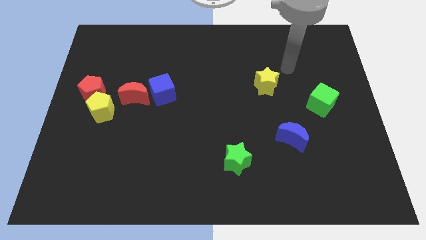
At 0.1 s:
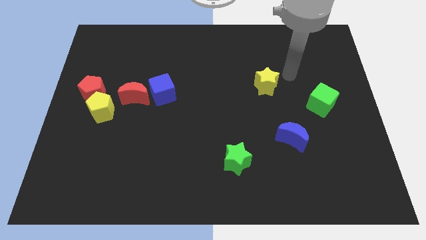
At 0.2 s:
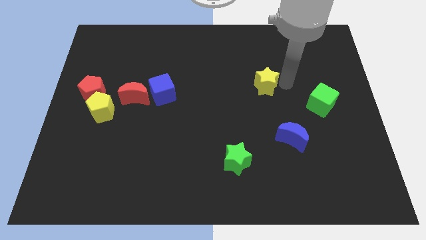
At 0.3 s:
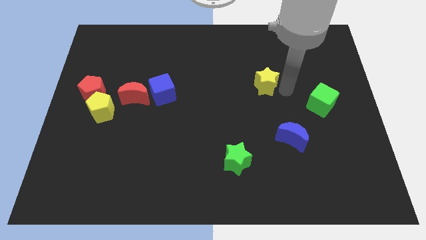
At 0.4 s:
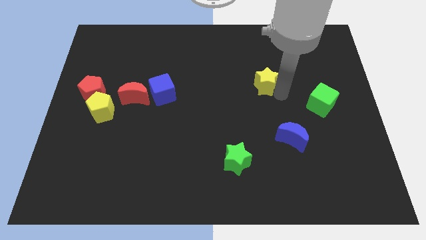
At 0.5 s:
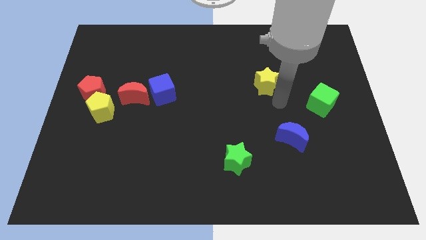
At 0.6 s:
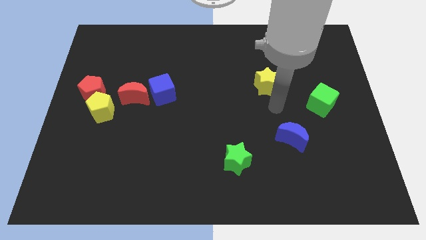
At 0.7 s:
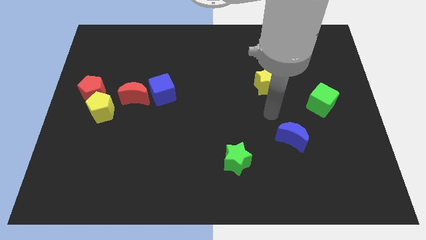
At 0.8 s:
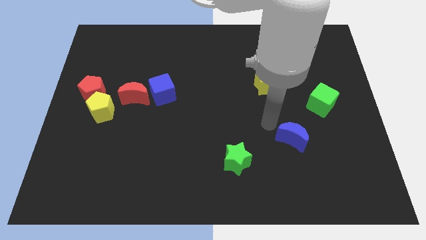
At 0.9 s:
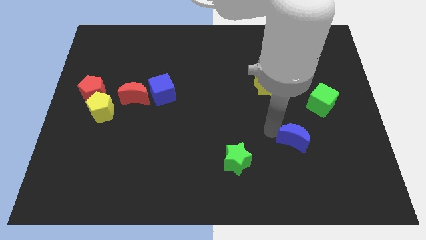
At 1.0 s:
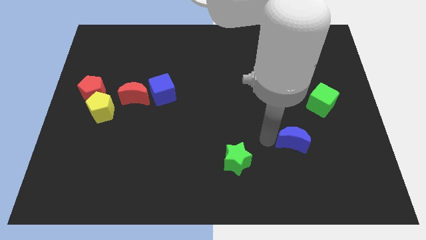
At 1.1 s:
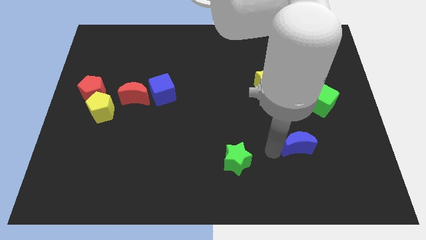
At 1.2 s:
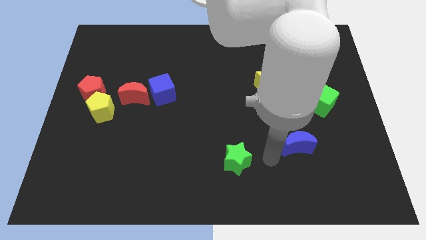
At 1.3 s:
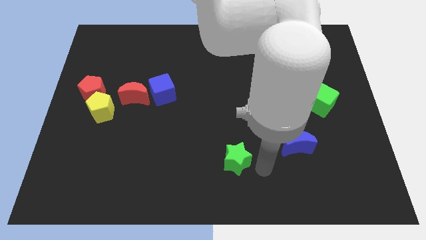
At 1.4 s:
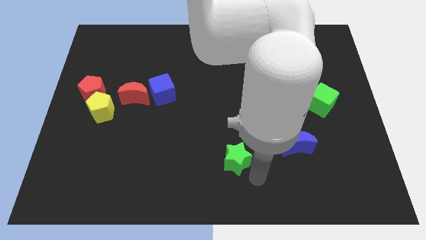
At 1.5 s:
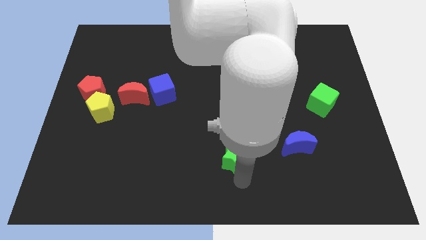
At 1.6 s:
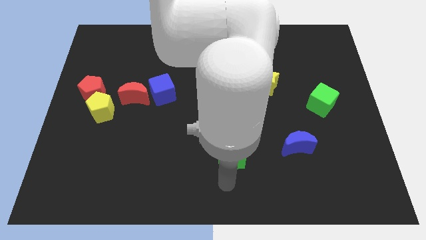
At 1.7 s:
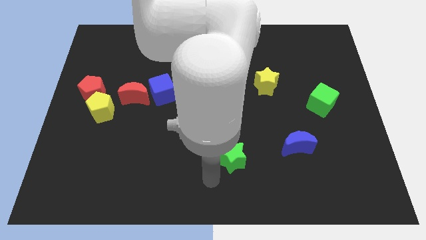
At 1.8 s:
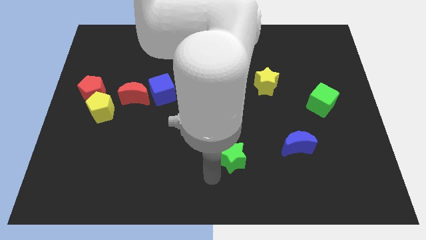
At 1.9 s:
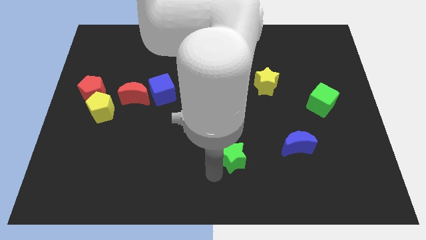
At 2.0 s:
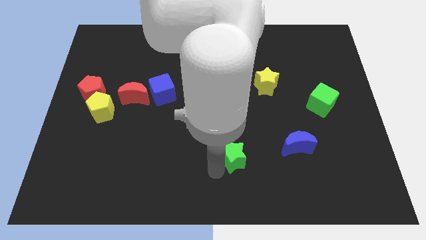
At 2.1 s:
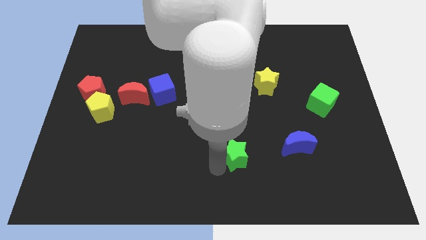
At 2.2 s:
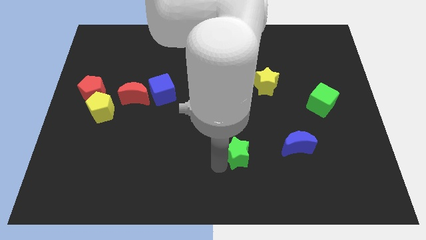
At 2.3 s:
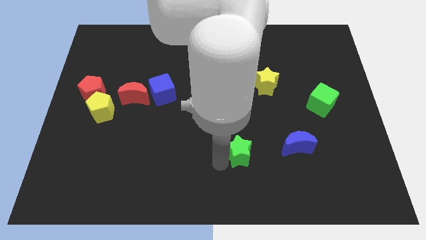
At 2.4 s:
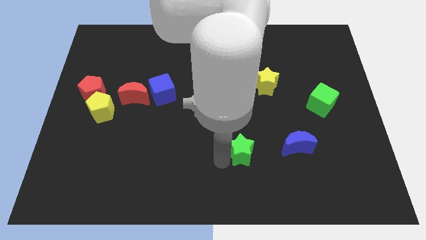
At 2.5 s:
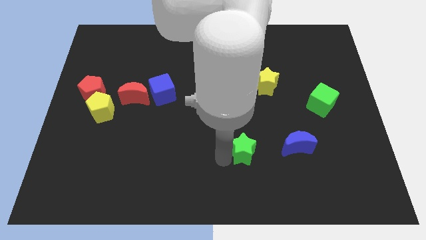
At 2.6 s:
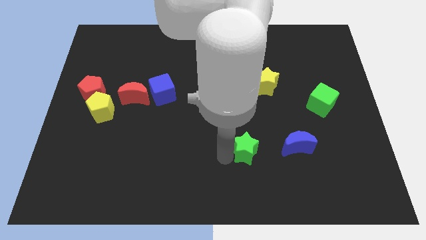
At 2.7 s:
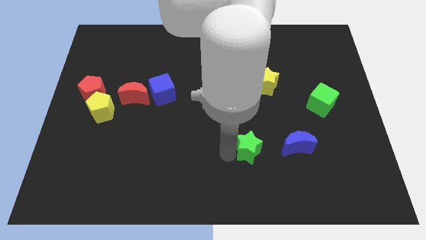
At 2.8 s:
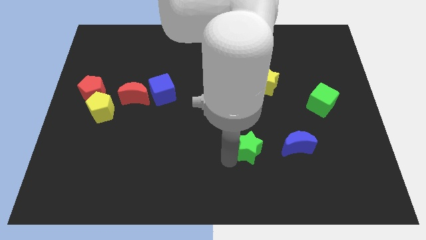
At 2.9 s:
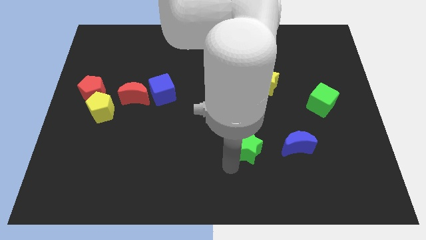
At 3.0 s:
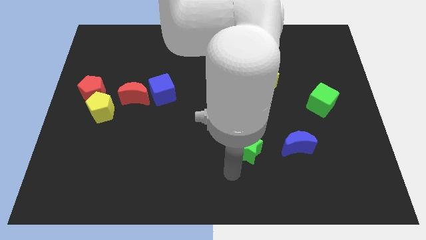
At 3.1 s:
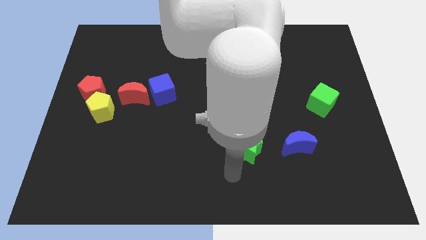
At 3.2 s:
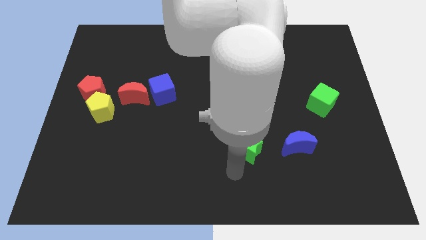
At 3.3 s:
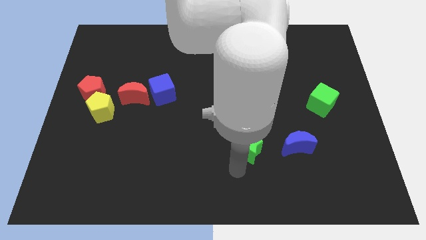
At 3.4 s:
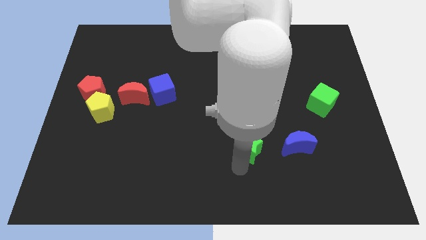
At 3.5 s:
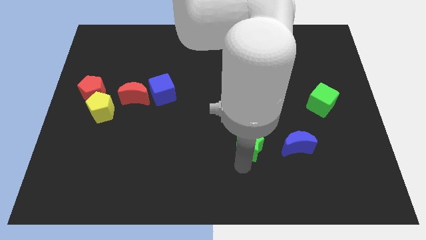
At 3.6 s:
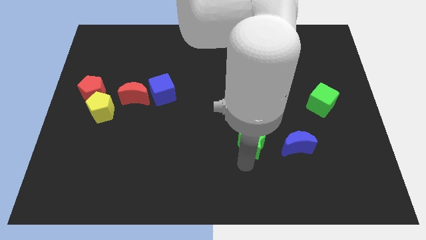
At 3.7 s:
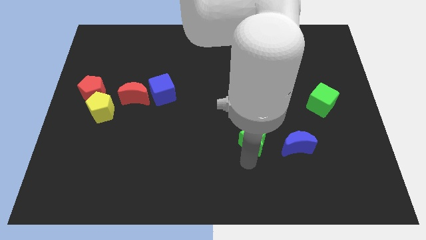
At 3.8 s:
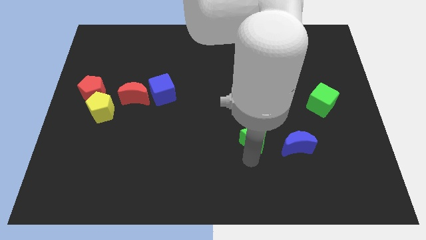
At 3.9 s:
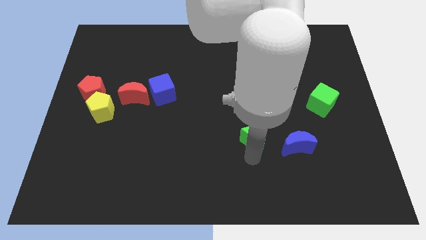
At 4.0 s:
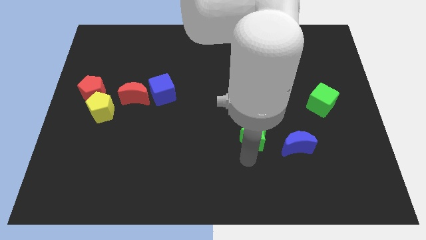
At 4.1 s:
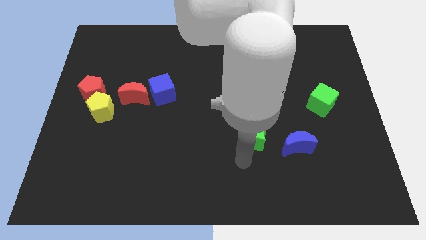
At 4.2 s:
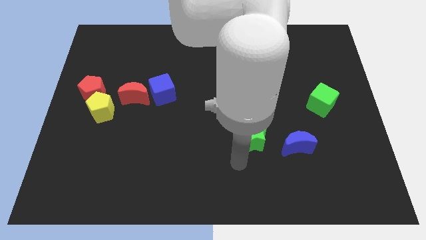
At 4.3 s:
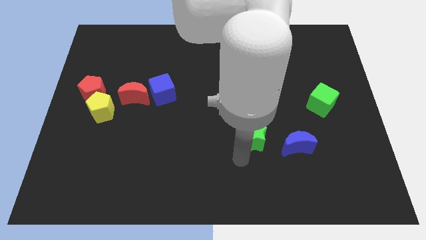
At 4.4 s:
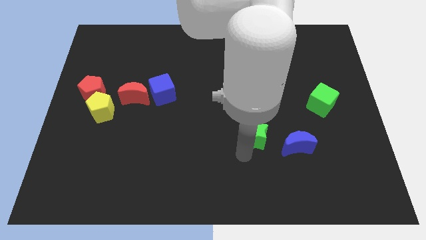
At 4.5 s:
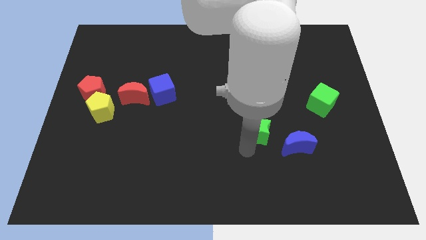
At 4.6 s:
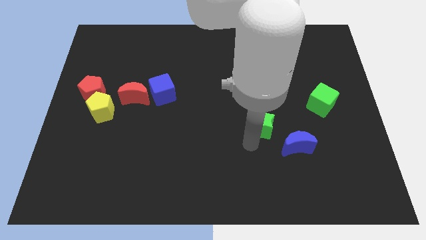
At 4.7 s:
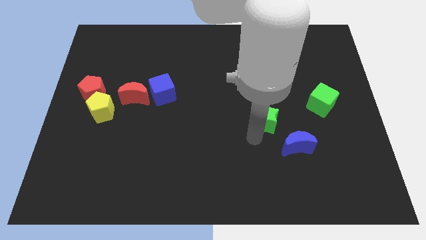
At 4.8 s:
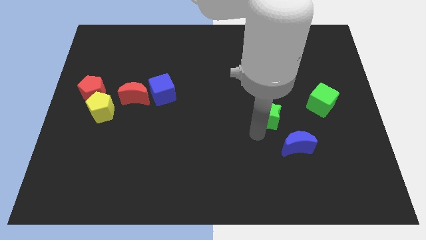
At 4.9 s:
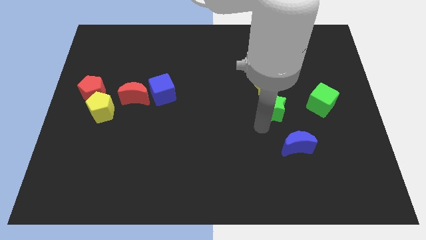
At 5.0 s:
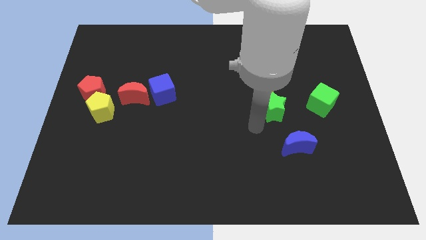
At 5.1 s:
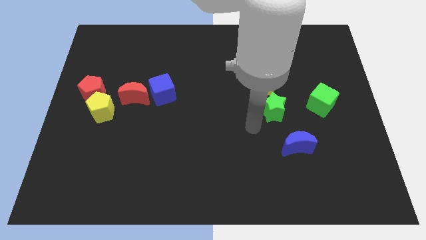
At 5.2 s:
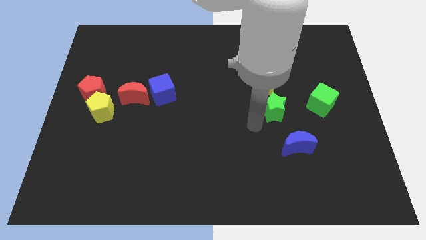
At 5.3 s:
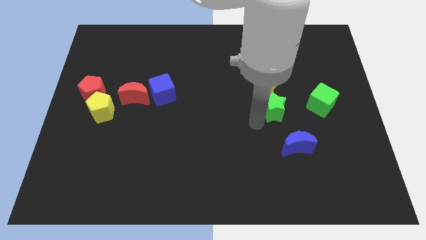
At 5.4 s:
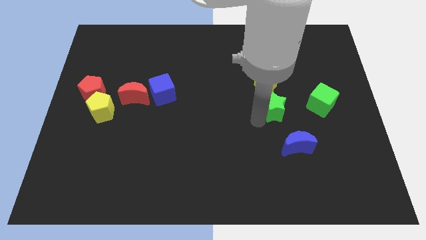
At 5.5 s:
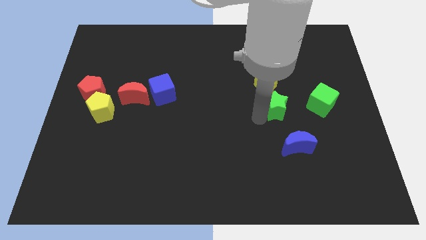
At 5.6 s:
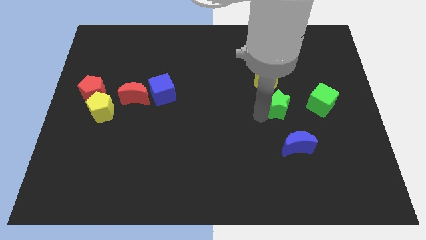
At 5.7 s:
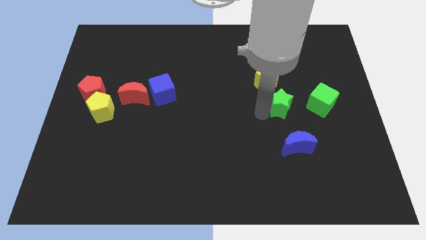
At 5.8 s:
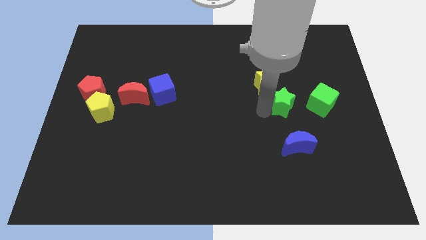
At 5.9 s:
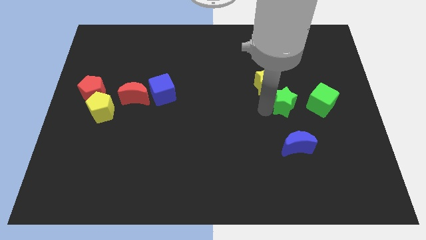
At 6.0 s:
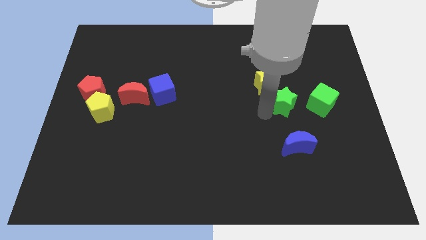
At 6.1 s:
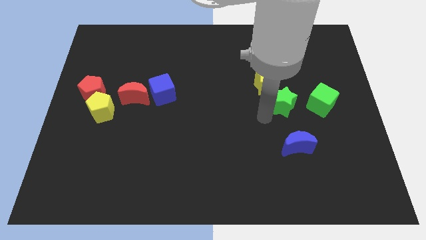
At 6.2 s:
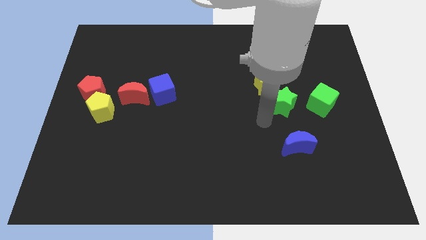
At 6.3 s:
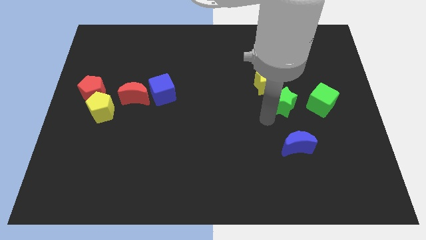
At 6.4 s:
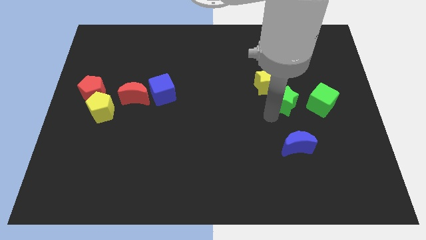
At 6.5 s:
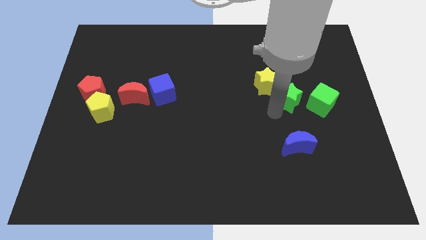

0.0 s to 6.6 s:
push the green star up and to the right diagonally

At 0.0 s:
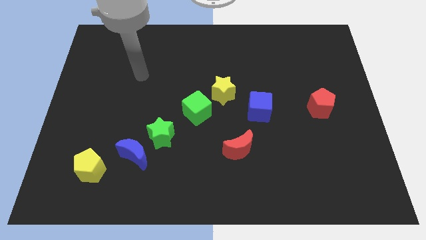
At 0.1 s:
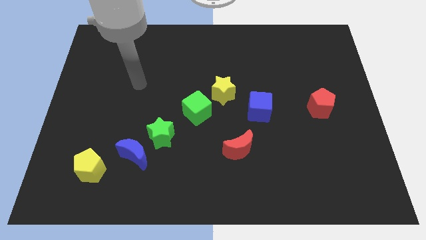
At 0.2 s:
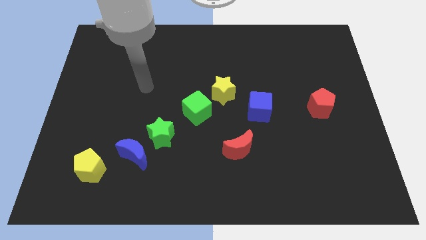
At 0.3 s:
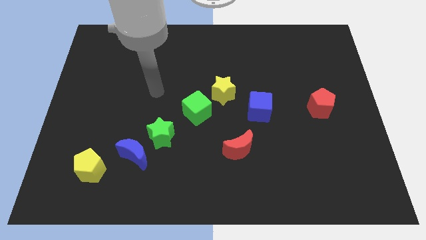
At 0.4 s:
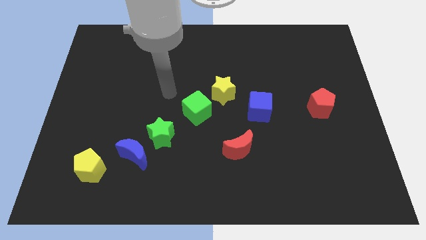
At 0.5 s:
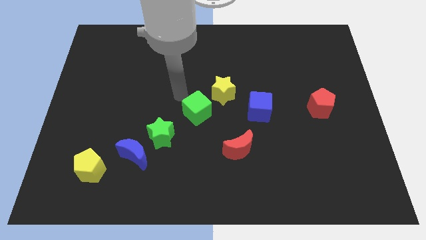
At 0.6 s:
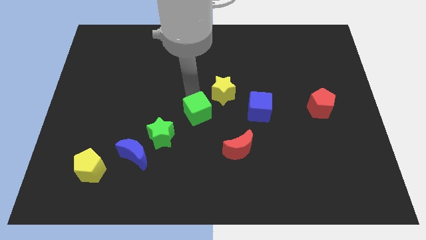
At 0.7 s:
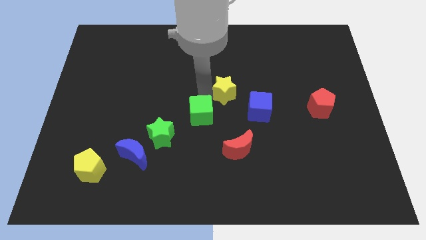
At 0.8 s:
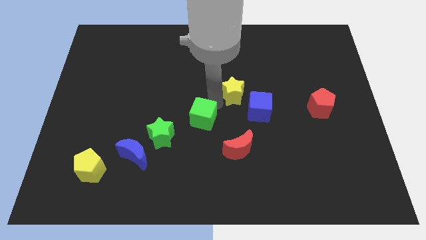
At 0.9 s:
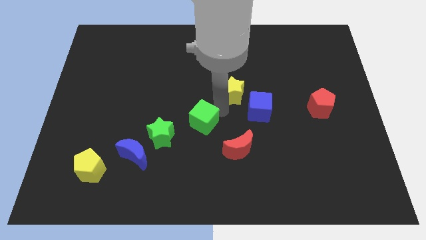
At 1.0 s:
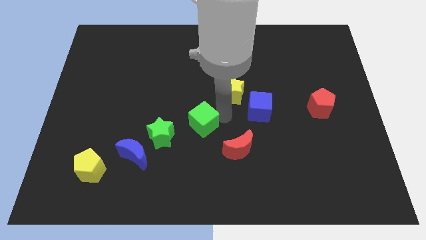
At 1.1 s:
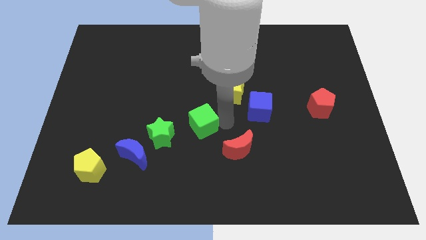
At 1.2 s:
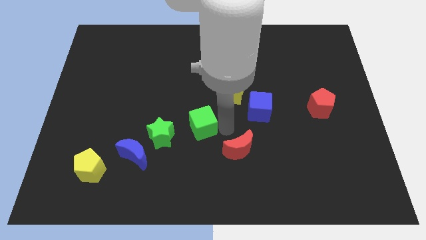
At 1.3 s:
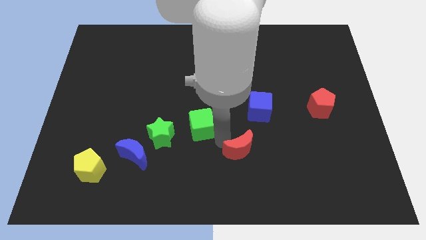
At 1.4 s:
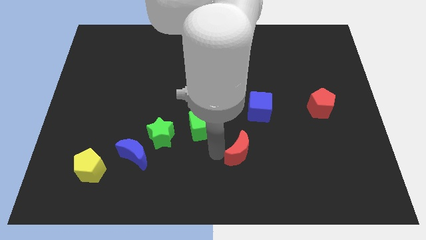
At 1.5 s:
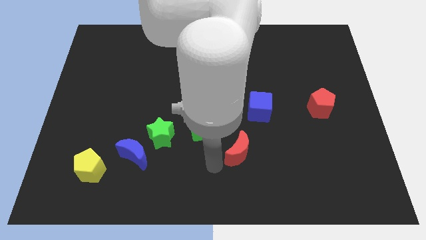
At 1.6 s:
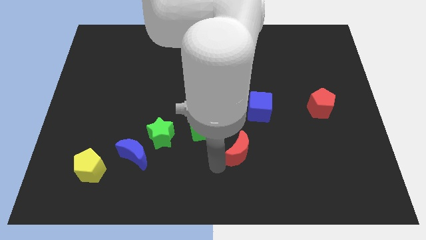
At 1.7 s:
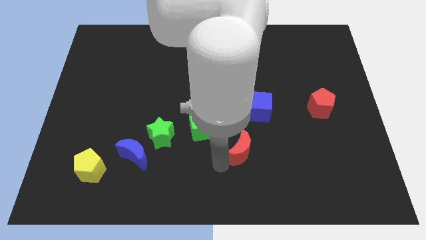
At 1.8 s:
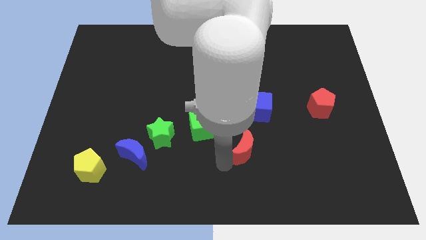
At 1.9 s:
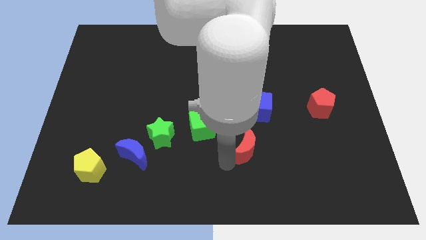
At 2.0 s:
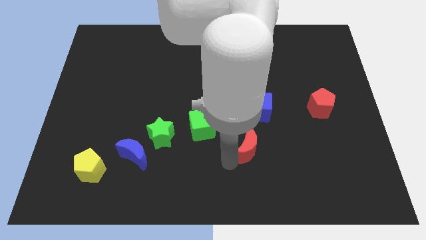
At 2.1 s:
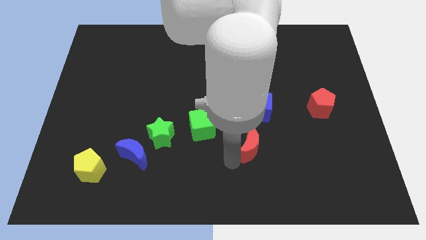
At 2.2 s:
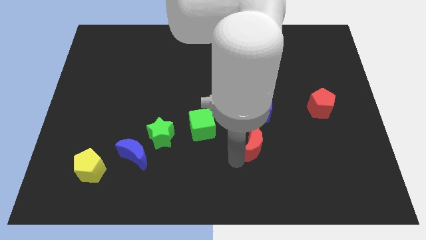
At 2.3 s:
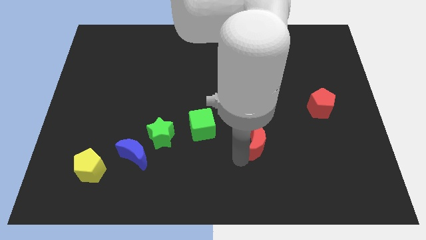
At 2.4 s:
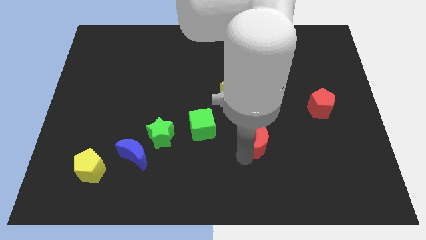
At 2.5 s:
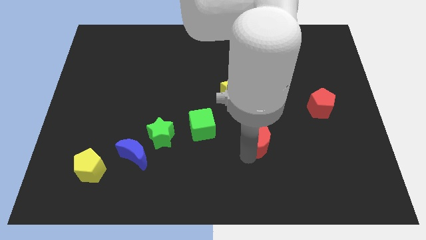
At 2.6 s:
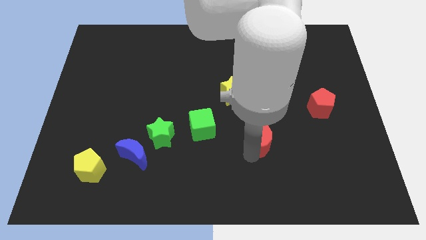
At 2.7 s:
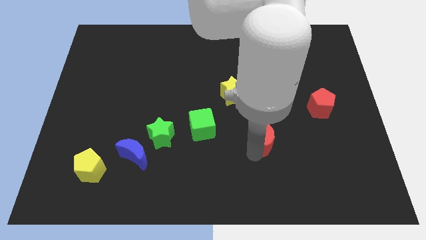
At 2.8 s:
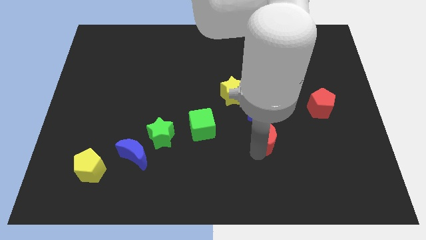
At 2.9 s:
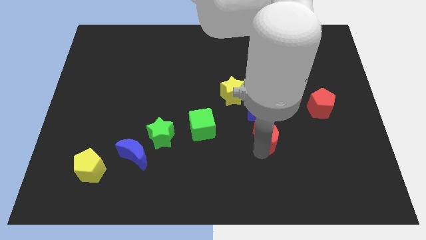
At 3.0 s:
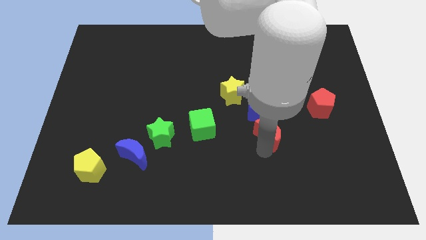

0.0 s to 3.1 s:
slightly push the red moon up and right
